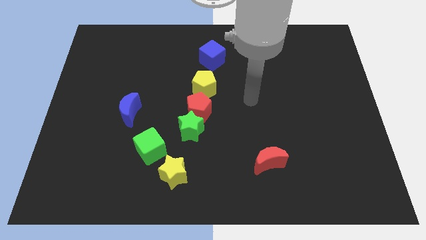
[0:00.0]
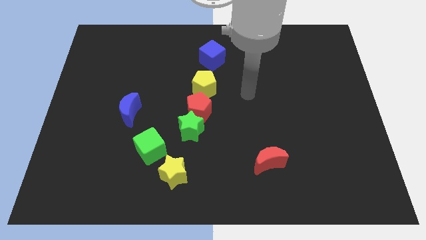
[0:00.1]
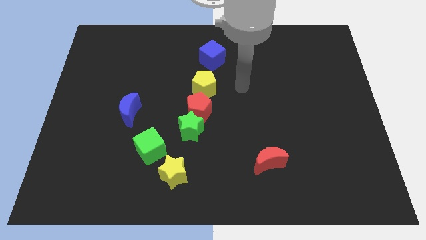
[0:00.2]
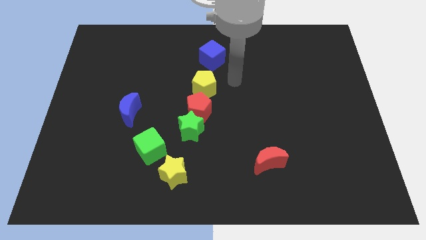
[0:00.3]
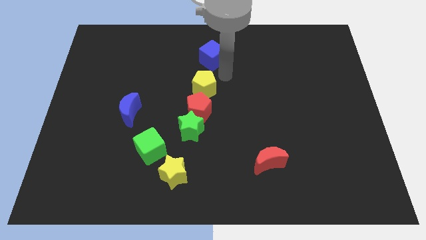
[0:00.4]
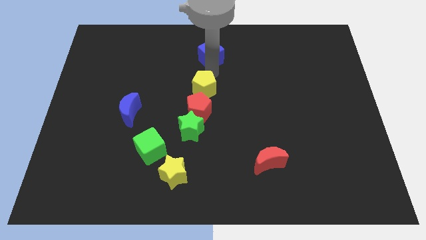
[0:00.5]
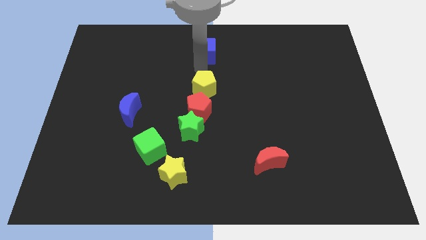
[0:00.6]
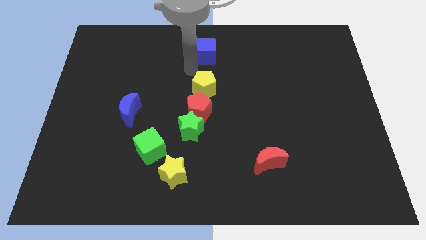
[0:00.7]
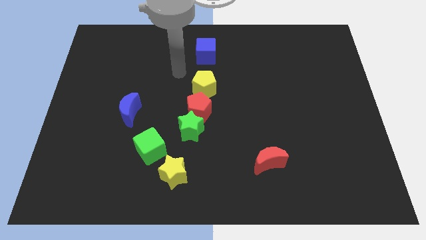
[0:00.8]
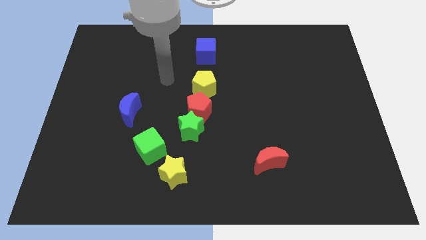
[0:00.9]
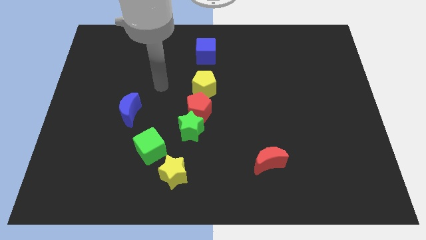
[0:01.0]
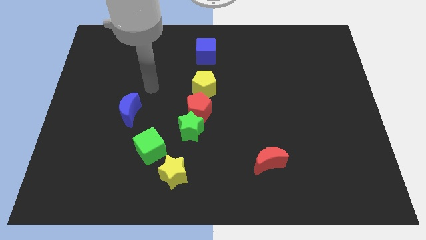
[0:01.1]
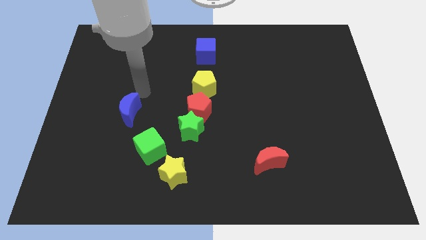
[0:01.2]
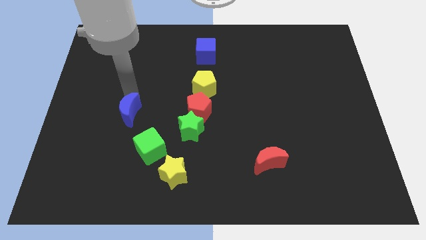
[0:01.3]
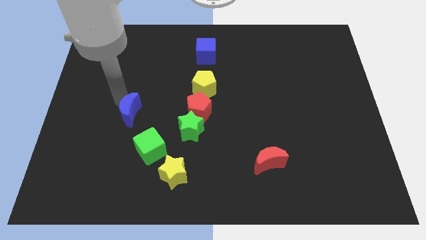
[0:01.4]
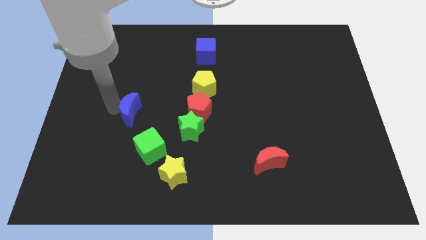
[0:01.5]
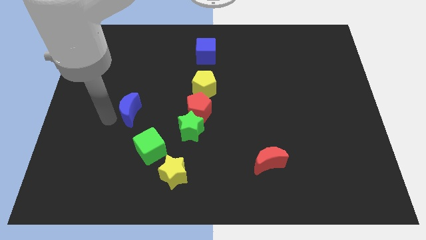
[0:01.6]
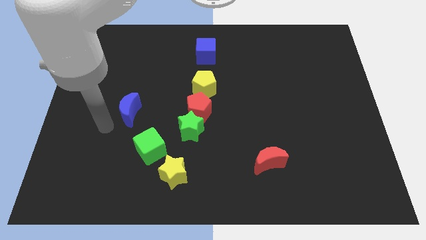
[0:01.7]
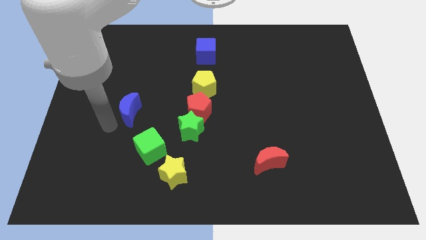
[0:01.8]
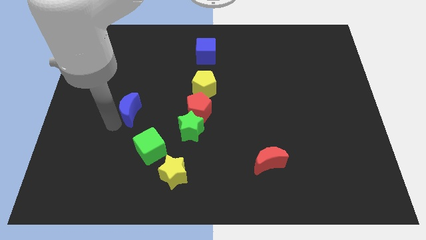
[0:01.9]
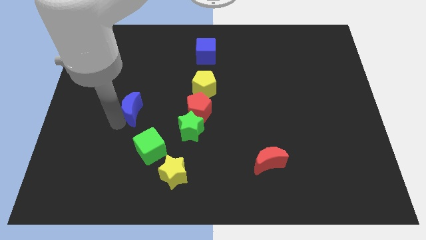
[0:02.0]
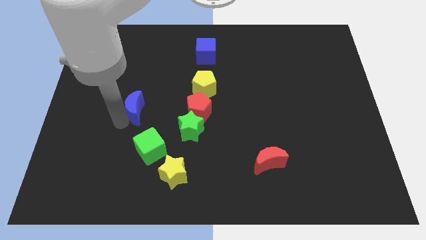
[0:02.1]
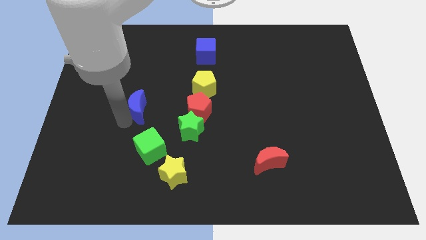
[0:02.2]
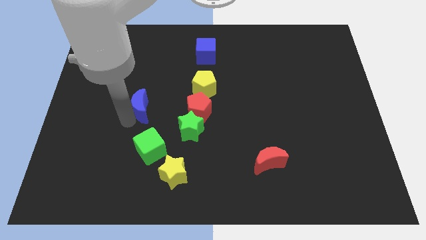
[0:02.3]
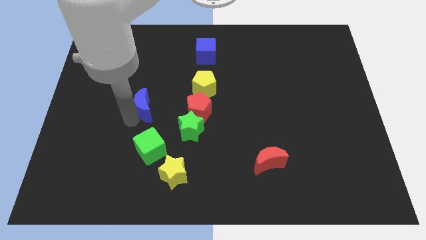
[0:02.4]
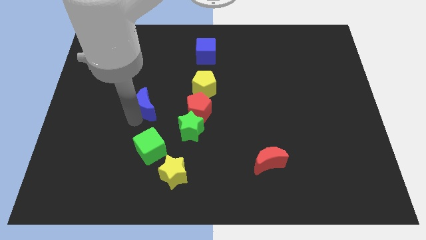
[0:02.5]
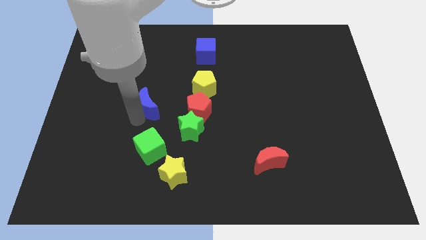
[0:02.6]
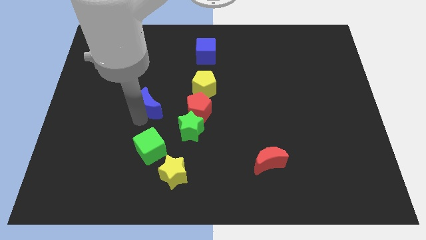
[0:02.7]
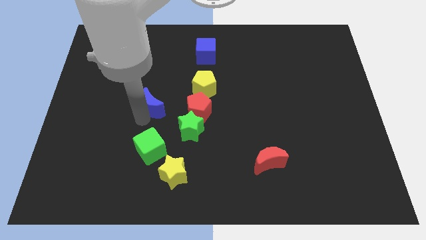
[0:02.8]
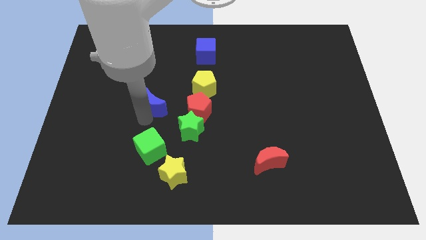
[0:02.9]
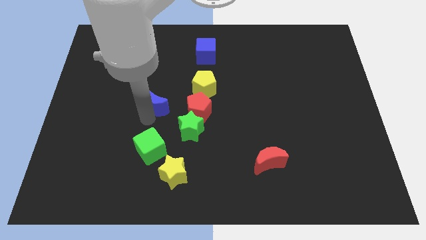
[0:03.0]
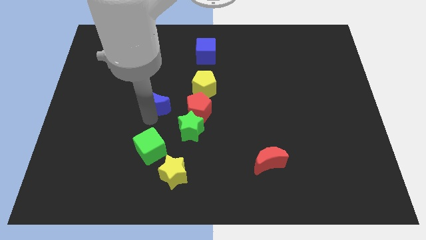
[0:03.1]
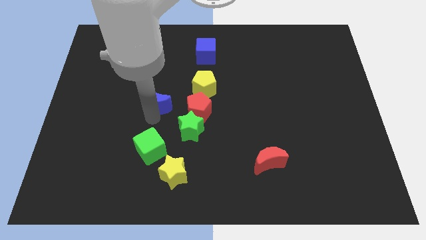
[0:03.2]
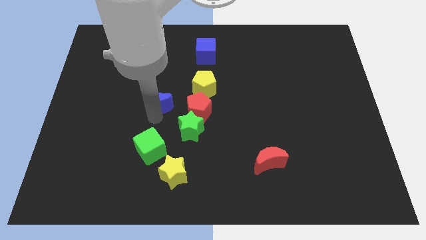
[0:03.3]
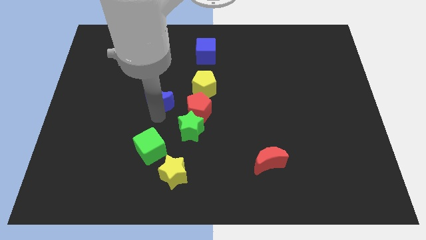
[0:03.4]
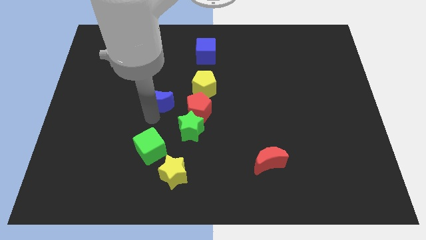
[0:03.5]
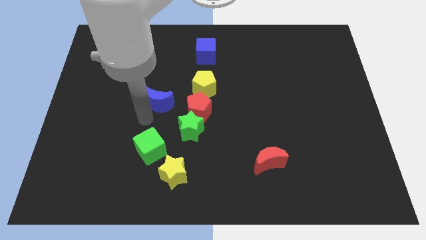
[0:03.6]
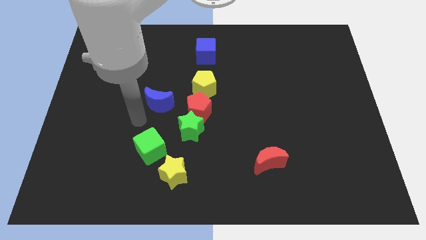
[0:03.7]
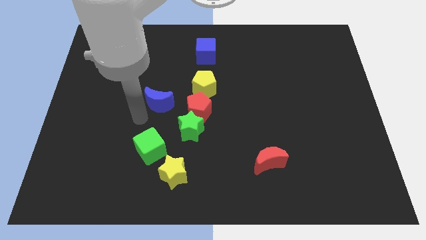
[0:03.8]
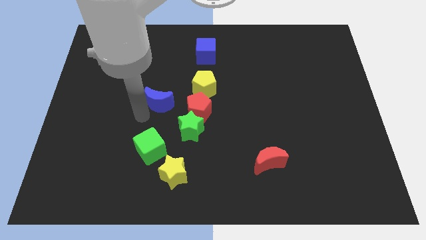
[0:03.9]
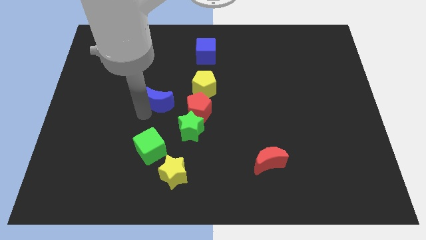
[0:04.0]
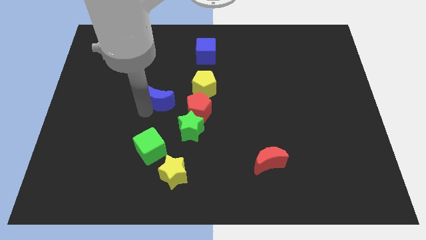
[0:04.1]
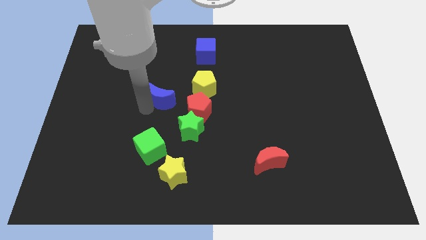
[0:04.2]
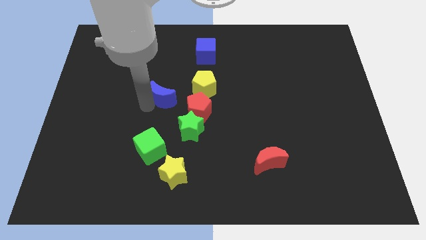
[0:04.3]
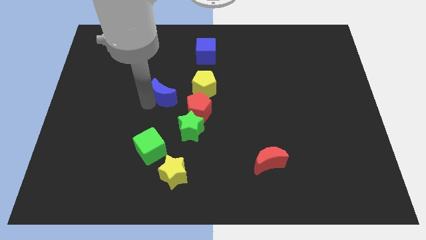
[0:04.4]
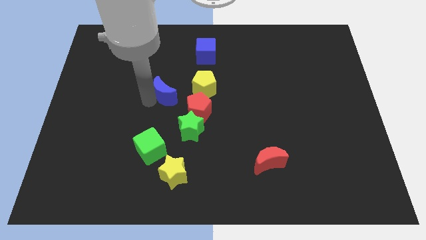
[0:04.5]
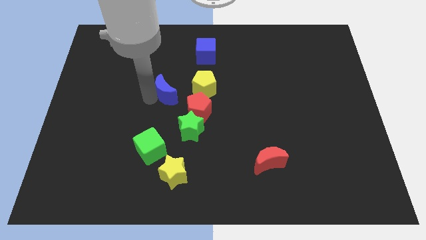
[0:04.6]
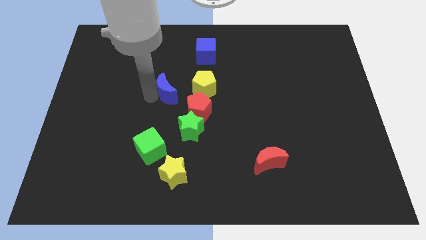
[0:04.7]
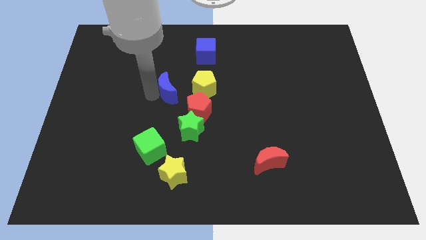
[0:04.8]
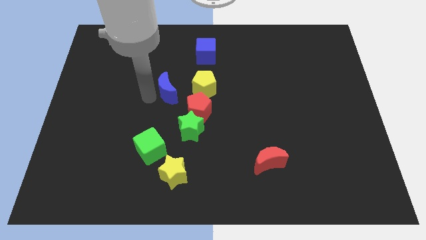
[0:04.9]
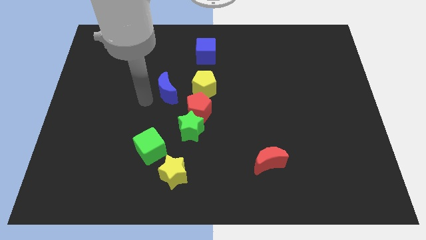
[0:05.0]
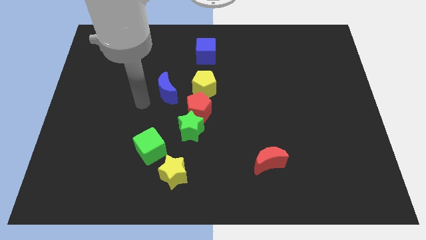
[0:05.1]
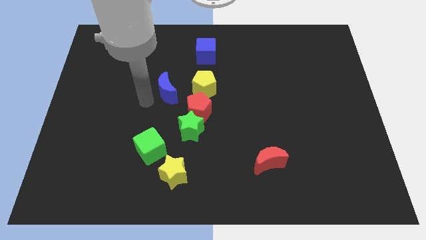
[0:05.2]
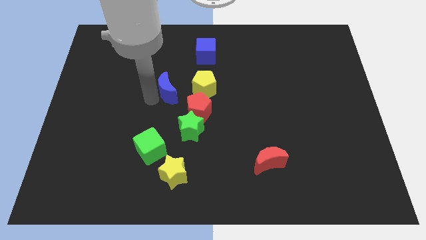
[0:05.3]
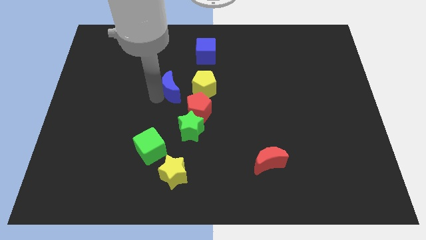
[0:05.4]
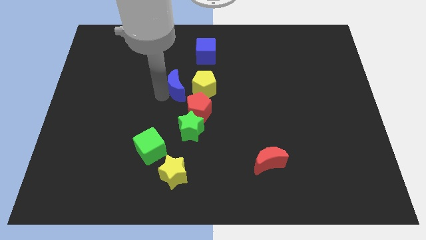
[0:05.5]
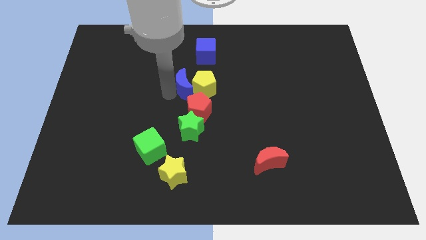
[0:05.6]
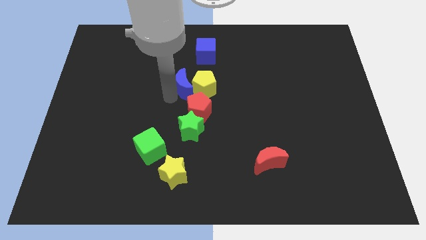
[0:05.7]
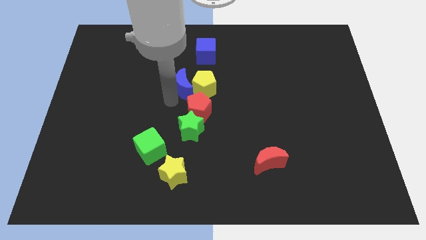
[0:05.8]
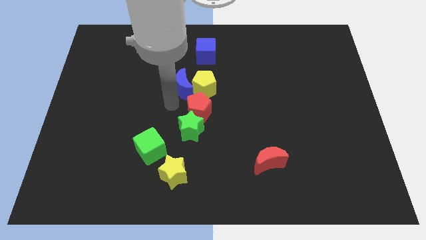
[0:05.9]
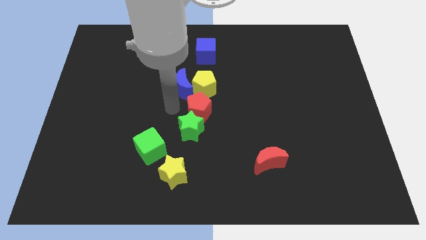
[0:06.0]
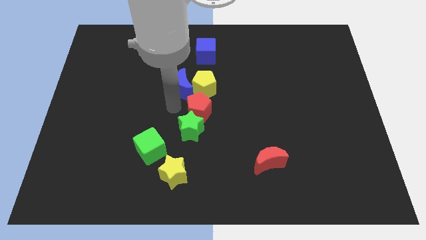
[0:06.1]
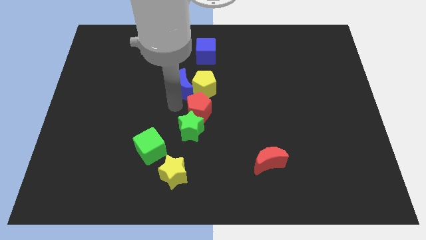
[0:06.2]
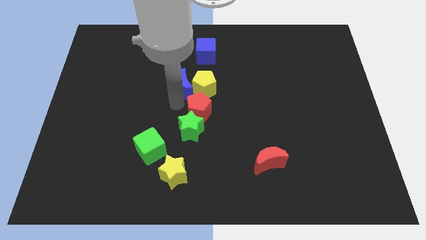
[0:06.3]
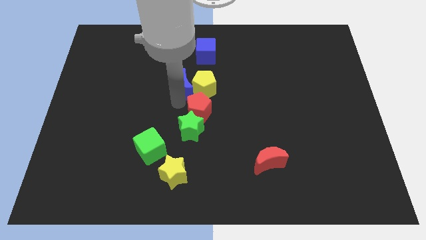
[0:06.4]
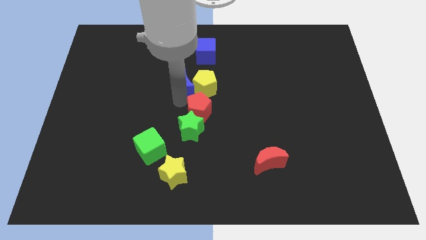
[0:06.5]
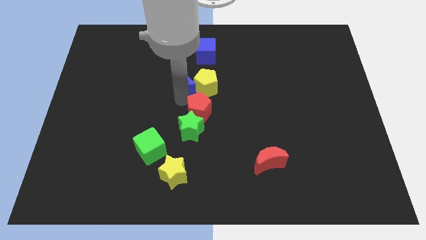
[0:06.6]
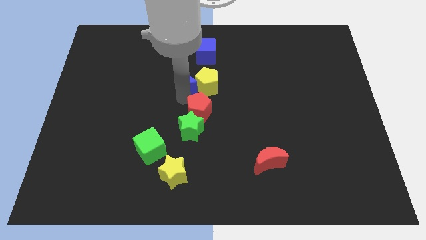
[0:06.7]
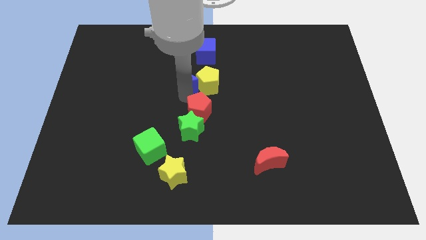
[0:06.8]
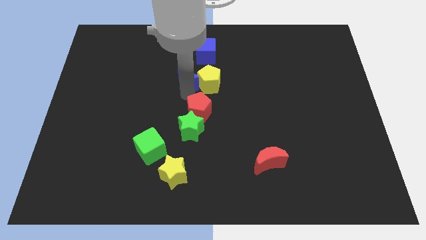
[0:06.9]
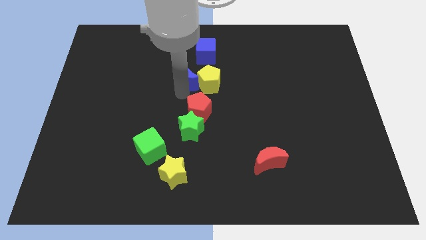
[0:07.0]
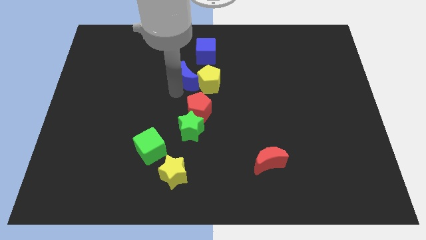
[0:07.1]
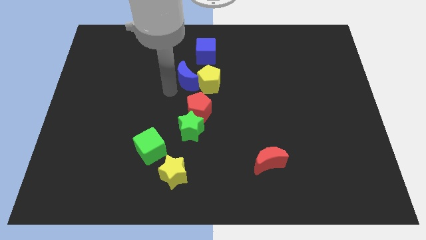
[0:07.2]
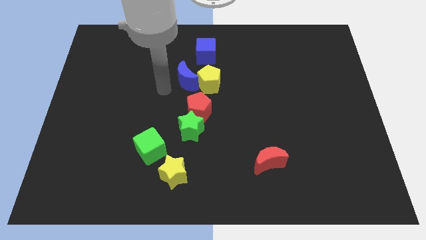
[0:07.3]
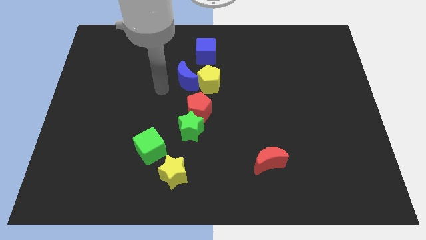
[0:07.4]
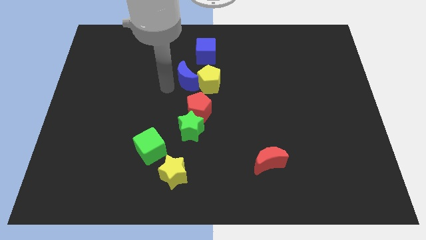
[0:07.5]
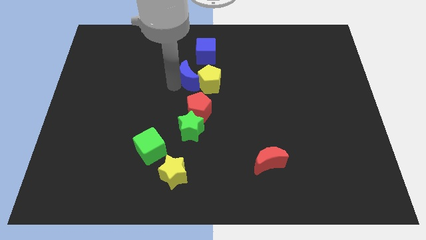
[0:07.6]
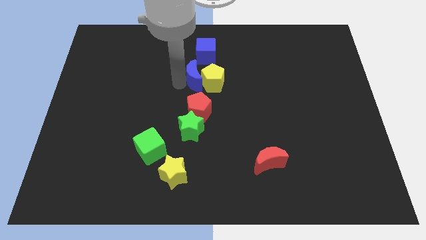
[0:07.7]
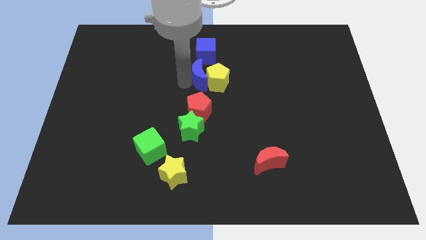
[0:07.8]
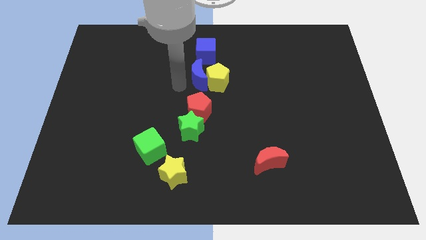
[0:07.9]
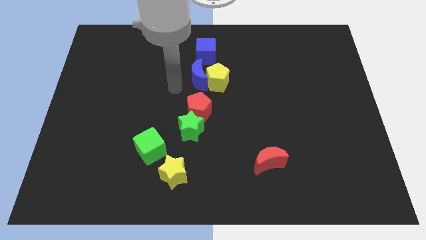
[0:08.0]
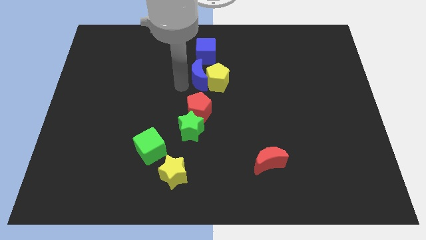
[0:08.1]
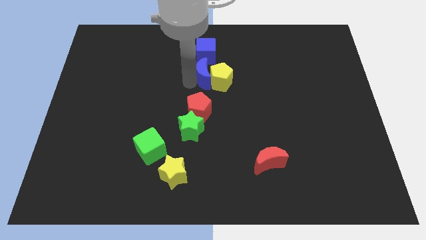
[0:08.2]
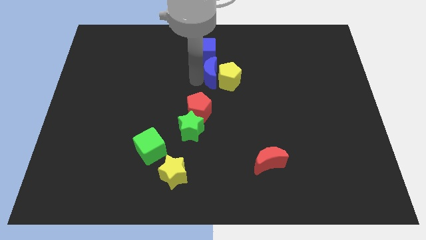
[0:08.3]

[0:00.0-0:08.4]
move the blue moon diagonally down and to the right of the blue cube
